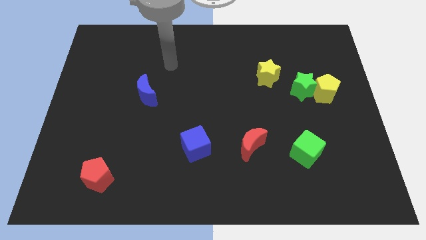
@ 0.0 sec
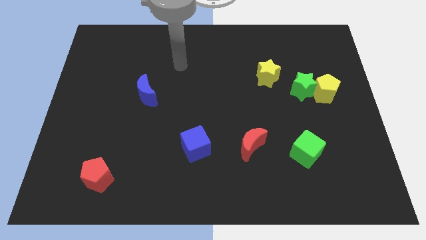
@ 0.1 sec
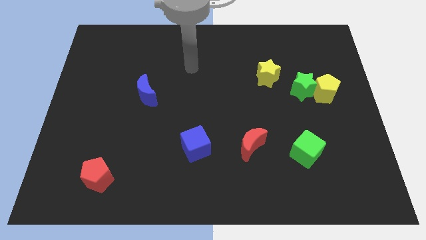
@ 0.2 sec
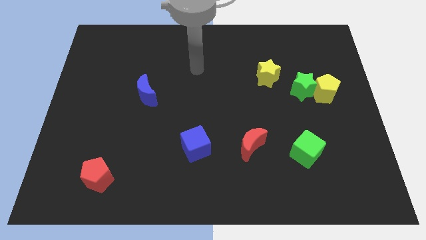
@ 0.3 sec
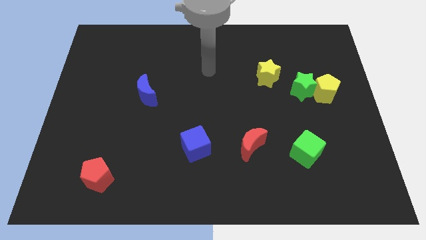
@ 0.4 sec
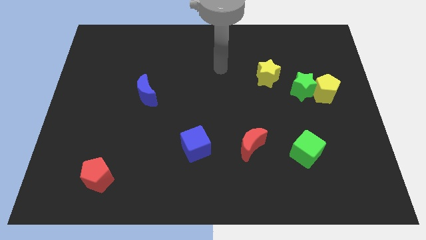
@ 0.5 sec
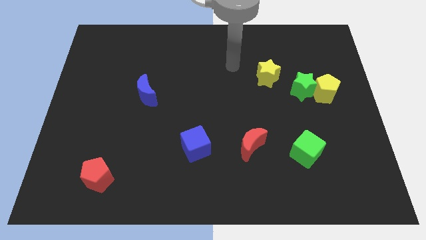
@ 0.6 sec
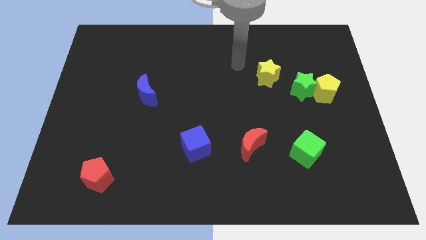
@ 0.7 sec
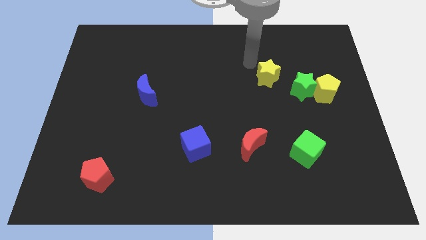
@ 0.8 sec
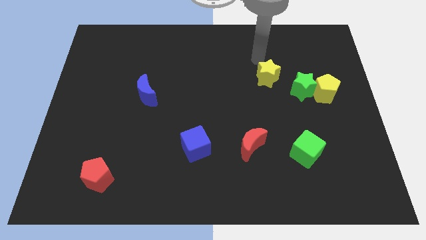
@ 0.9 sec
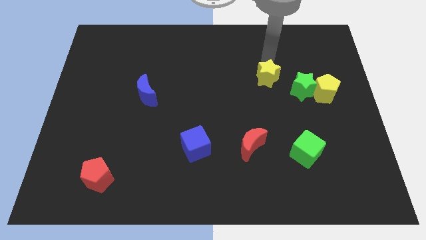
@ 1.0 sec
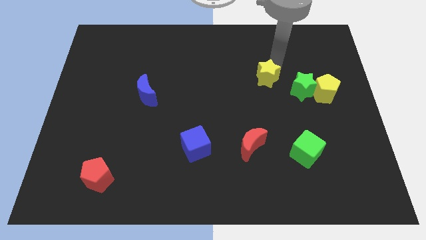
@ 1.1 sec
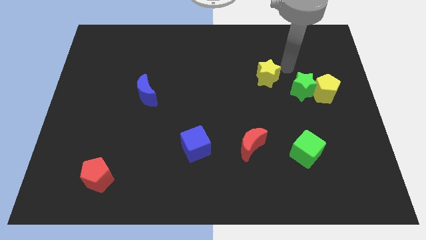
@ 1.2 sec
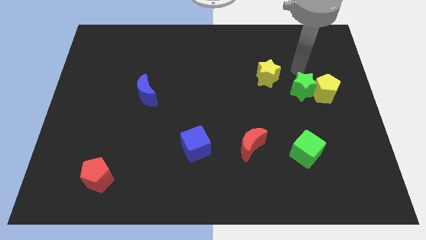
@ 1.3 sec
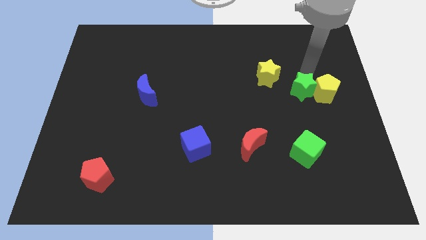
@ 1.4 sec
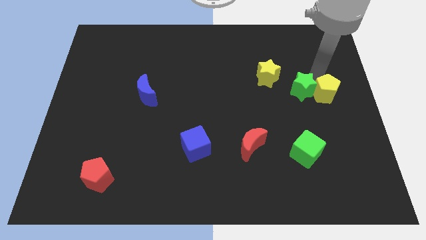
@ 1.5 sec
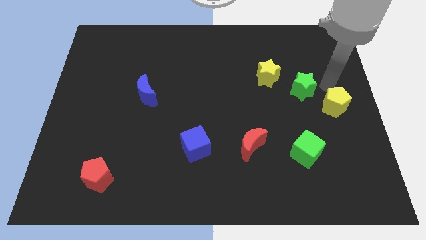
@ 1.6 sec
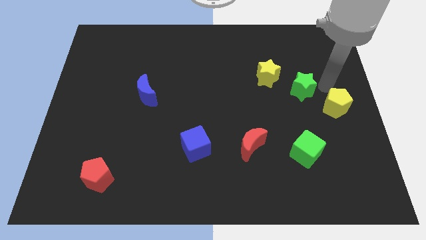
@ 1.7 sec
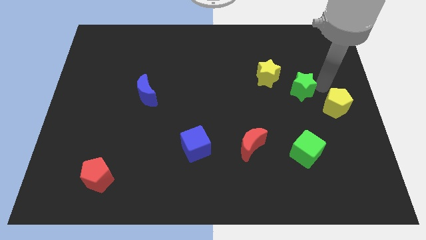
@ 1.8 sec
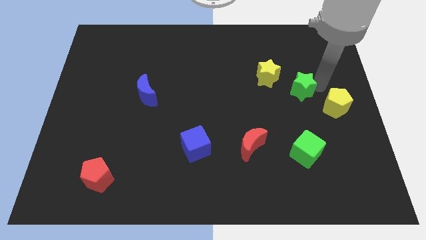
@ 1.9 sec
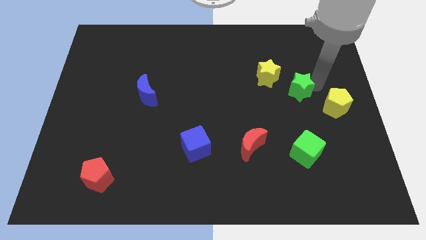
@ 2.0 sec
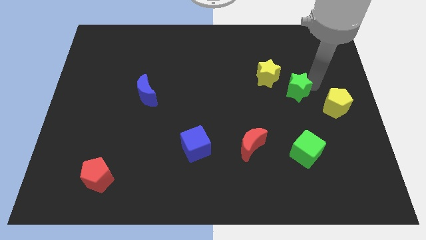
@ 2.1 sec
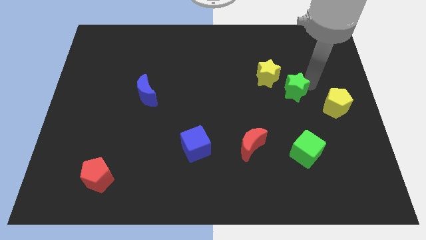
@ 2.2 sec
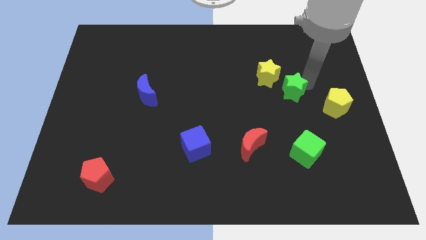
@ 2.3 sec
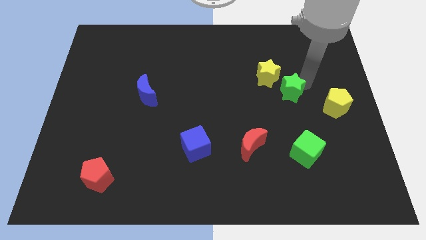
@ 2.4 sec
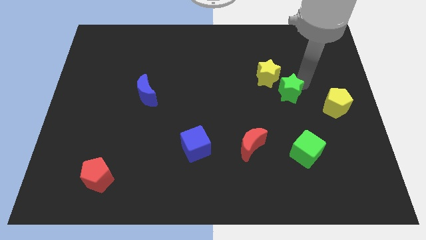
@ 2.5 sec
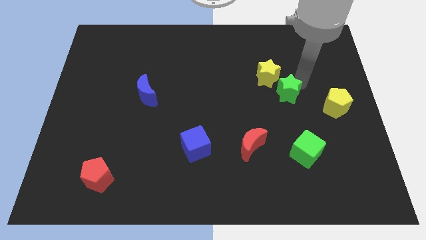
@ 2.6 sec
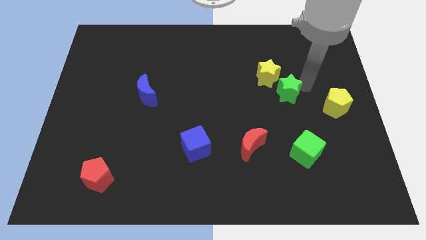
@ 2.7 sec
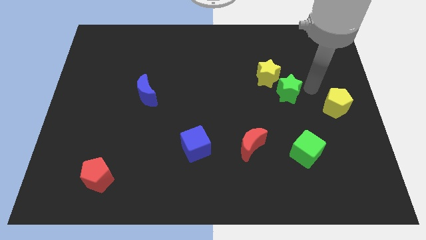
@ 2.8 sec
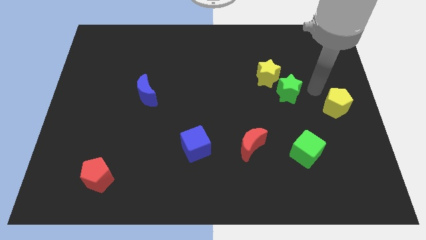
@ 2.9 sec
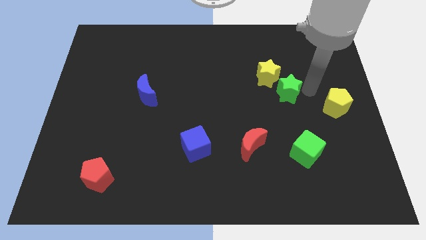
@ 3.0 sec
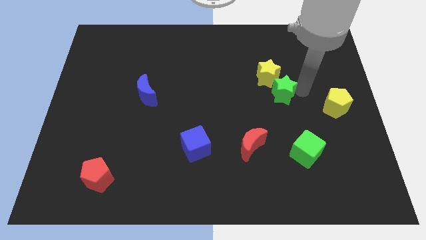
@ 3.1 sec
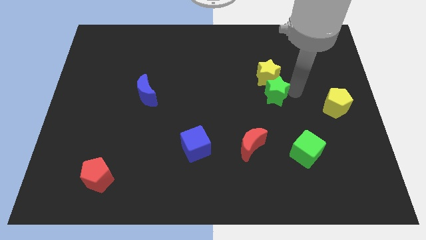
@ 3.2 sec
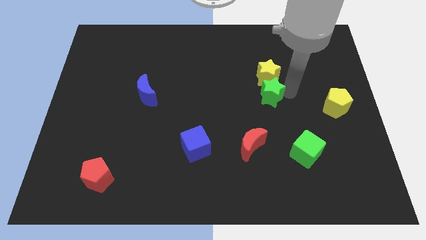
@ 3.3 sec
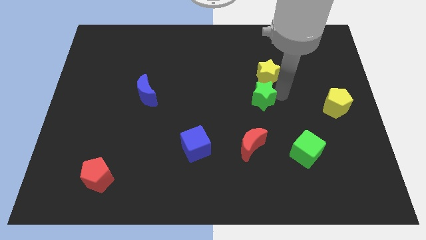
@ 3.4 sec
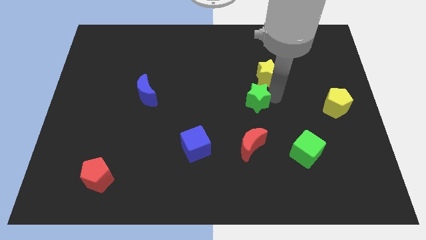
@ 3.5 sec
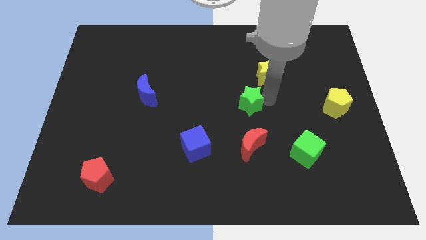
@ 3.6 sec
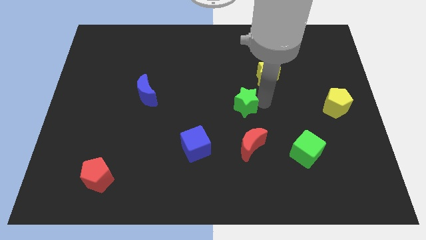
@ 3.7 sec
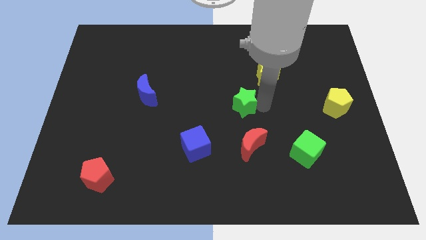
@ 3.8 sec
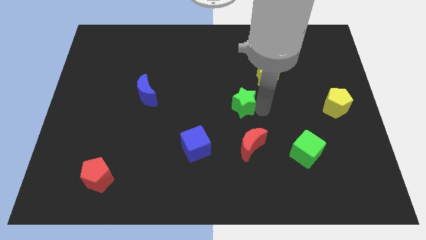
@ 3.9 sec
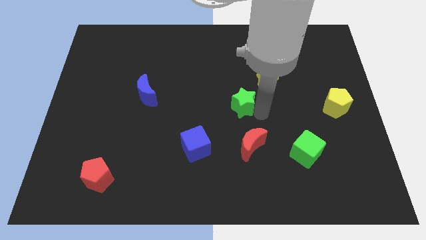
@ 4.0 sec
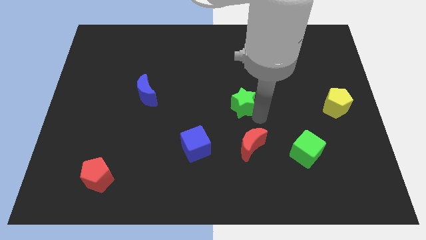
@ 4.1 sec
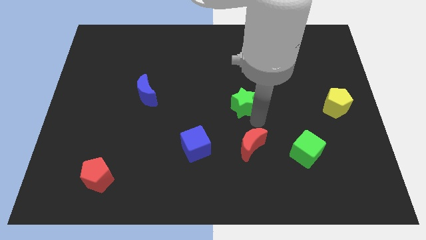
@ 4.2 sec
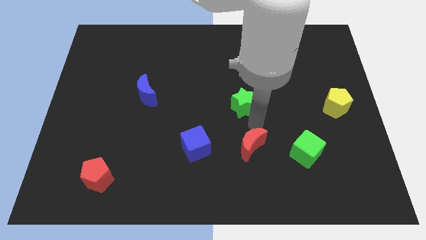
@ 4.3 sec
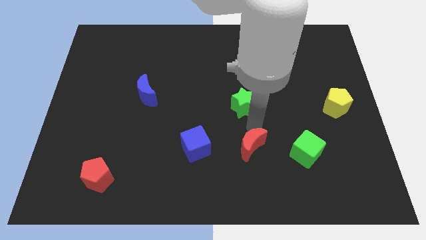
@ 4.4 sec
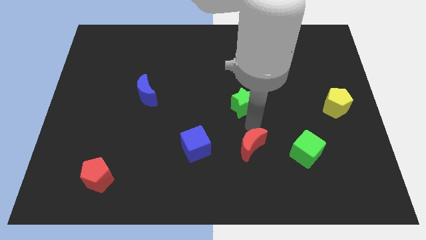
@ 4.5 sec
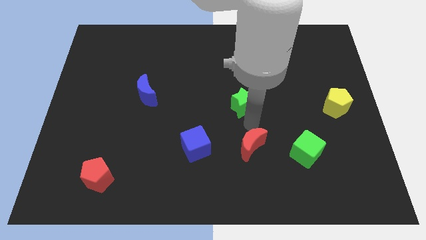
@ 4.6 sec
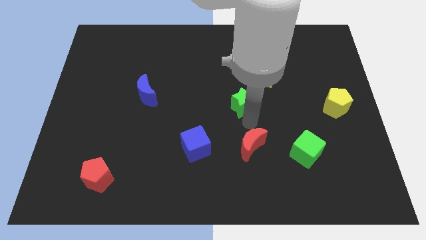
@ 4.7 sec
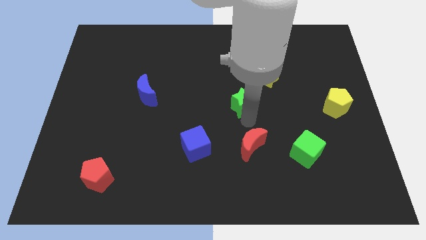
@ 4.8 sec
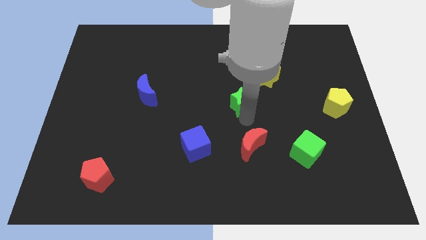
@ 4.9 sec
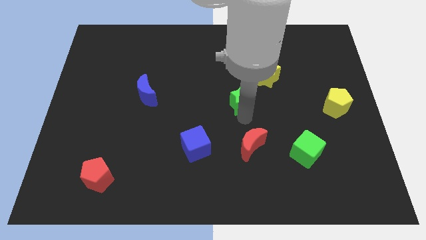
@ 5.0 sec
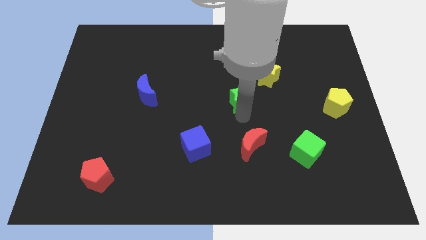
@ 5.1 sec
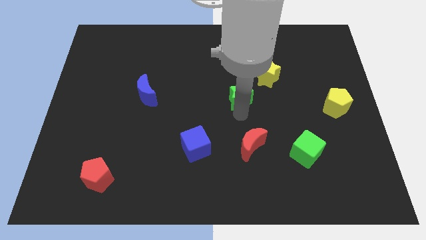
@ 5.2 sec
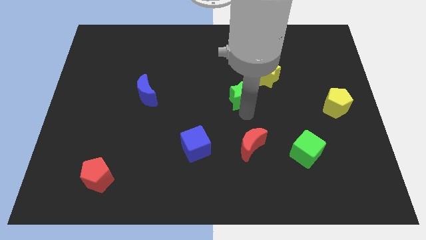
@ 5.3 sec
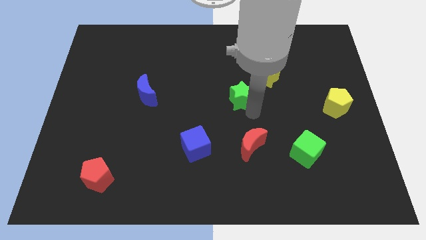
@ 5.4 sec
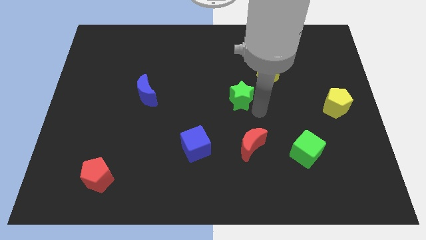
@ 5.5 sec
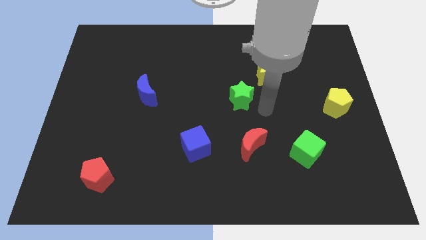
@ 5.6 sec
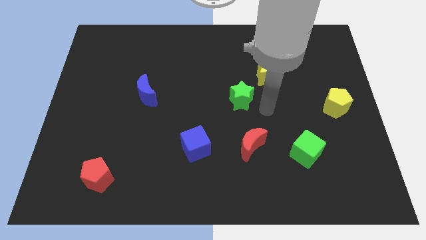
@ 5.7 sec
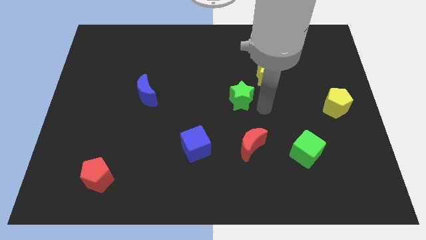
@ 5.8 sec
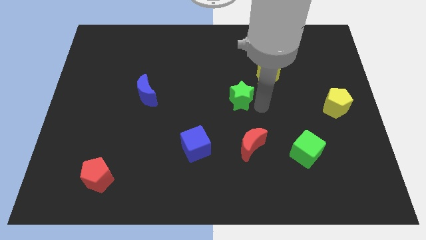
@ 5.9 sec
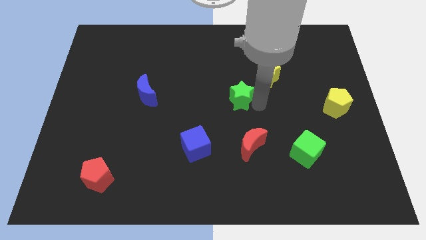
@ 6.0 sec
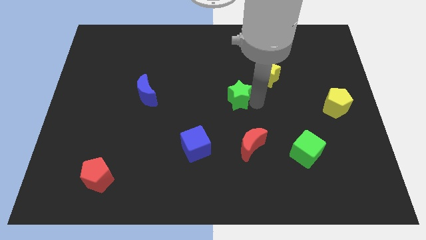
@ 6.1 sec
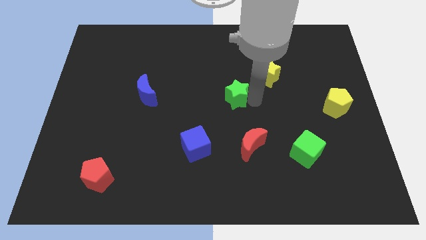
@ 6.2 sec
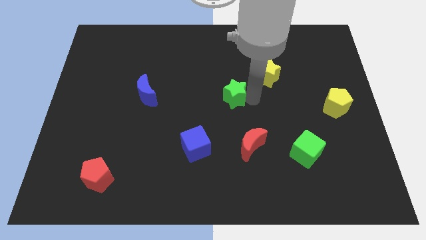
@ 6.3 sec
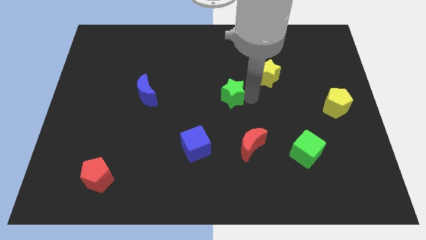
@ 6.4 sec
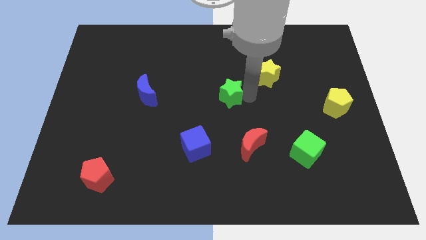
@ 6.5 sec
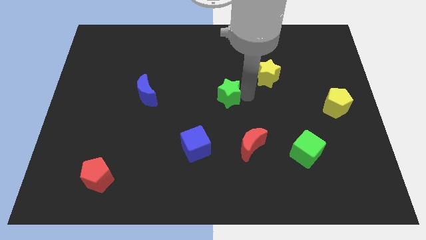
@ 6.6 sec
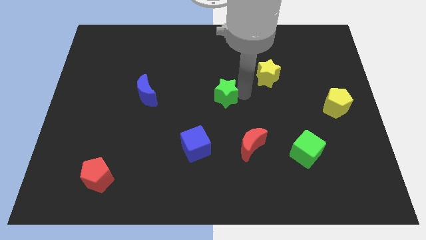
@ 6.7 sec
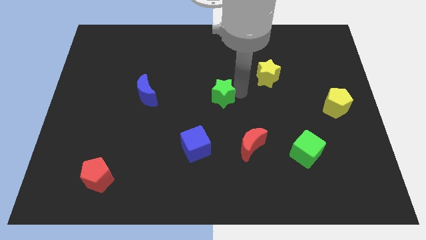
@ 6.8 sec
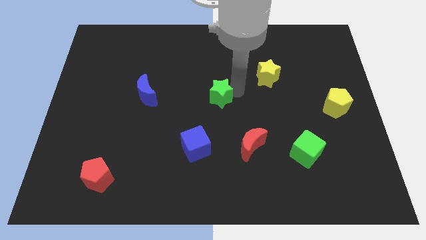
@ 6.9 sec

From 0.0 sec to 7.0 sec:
push the green star left

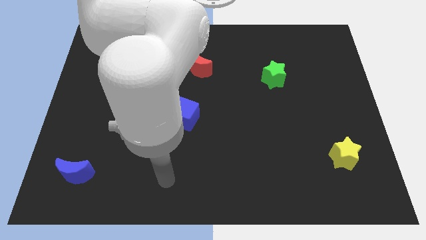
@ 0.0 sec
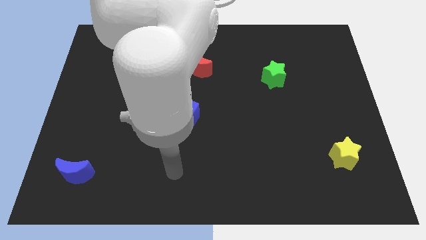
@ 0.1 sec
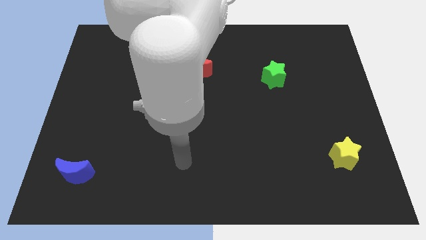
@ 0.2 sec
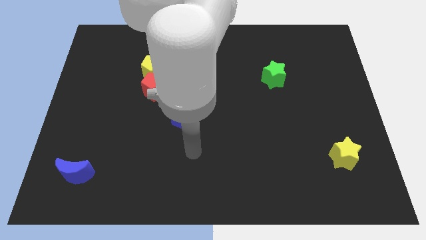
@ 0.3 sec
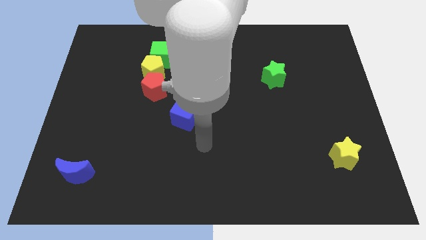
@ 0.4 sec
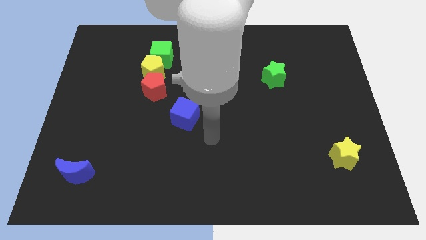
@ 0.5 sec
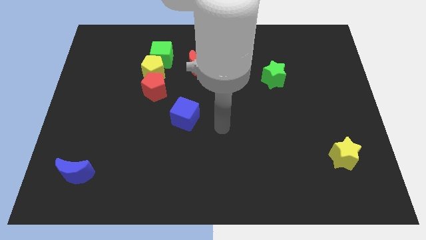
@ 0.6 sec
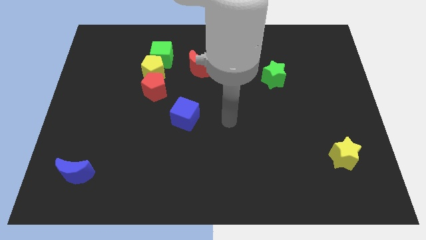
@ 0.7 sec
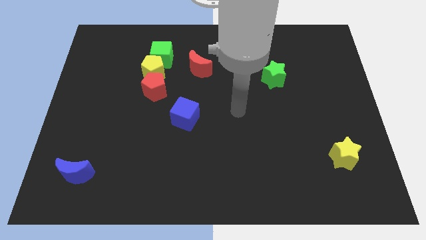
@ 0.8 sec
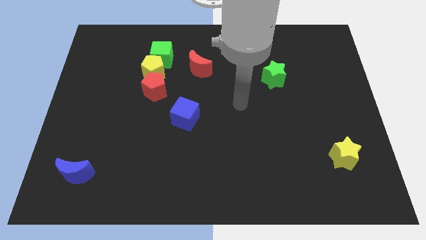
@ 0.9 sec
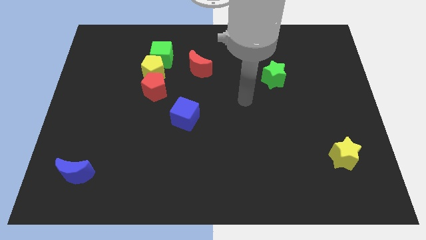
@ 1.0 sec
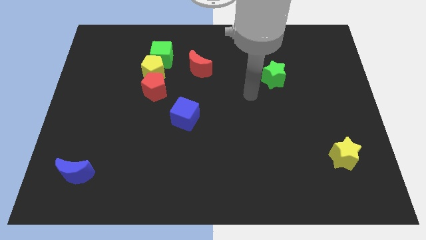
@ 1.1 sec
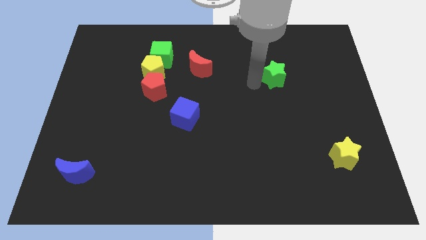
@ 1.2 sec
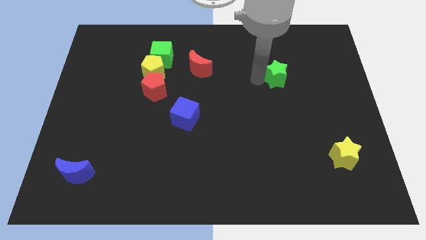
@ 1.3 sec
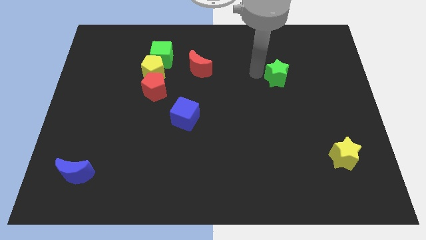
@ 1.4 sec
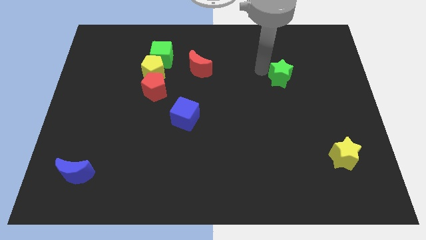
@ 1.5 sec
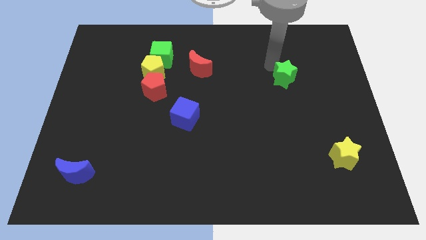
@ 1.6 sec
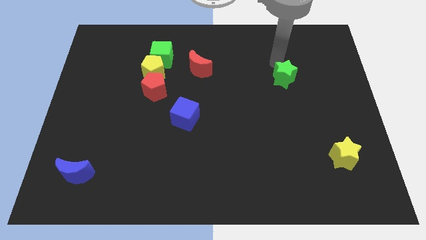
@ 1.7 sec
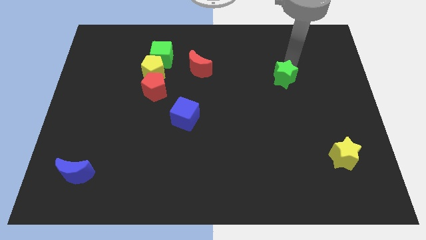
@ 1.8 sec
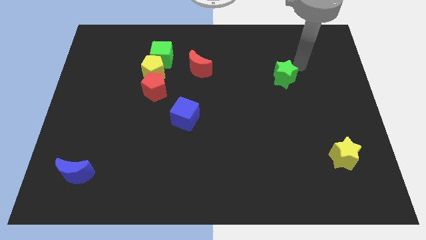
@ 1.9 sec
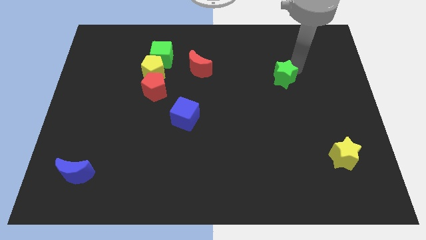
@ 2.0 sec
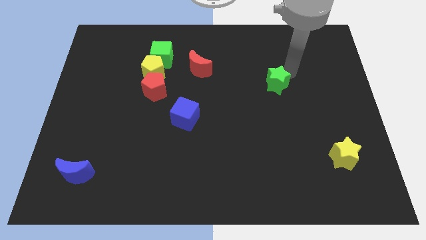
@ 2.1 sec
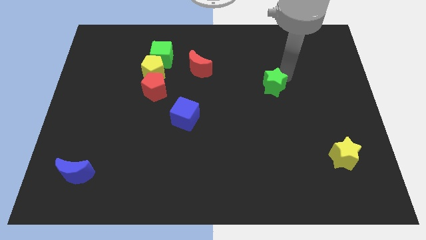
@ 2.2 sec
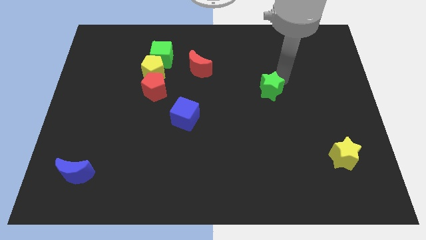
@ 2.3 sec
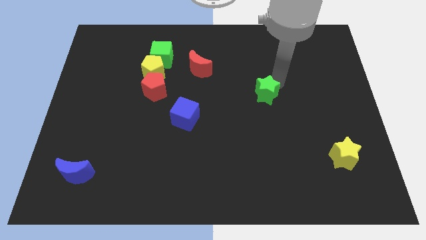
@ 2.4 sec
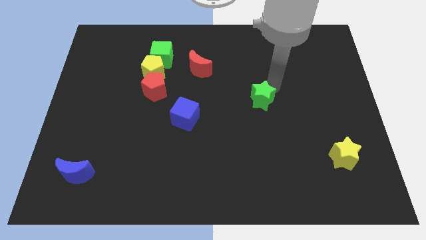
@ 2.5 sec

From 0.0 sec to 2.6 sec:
move the green star down and to the left diagonally a little
